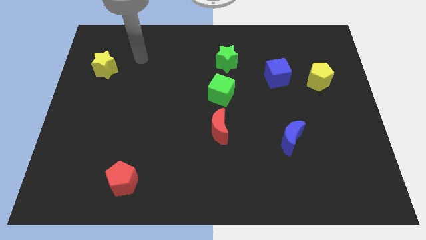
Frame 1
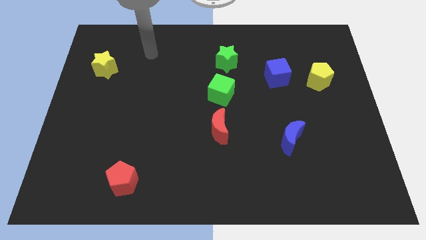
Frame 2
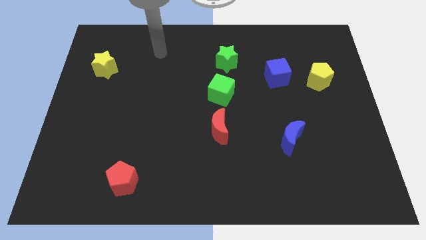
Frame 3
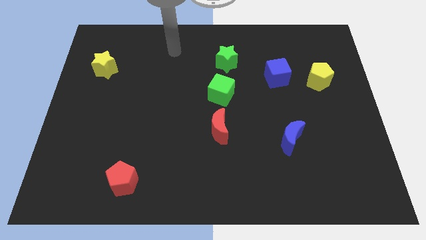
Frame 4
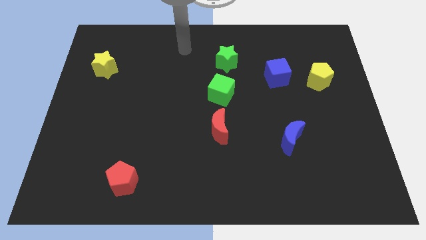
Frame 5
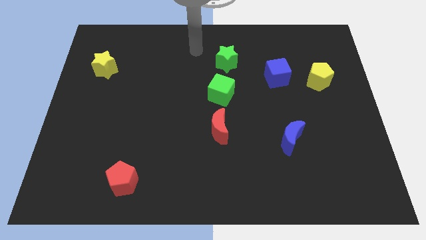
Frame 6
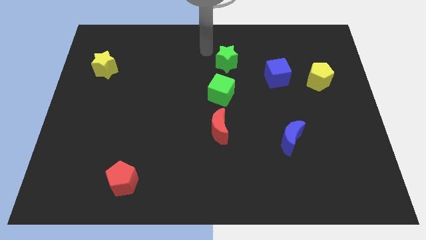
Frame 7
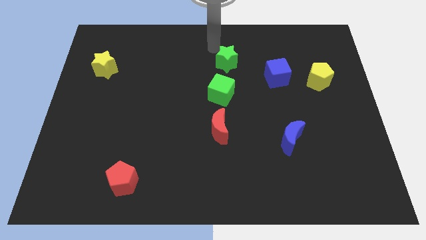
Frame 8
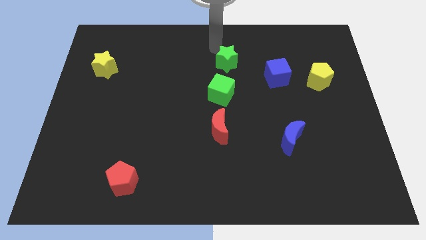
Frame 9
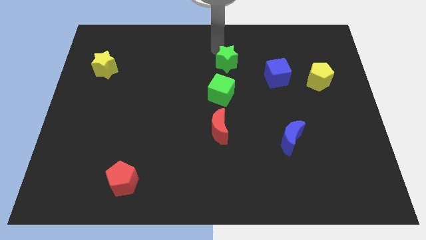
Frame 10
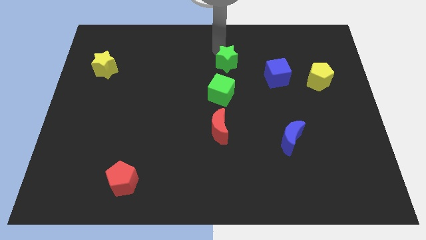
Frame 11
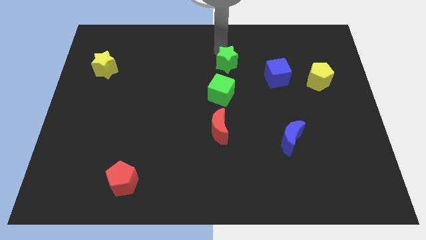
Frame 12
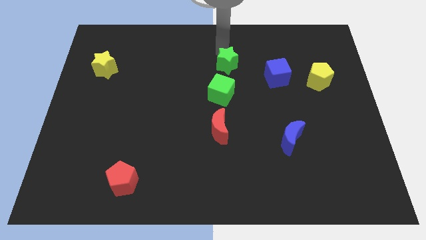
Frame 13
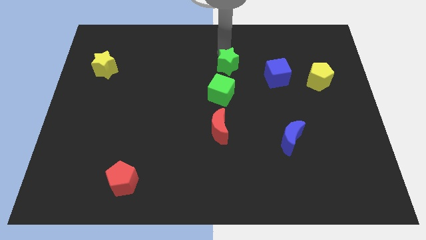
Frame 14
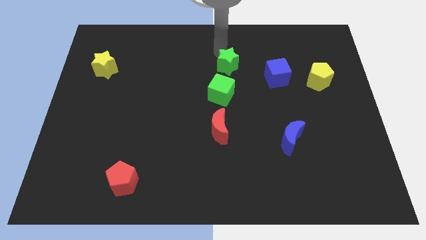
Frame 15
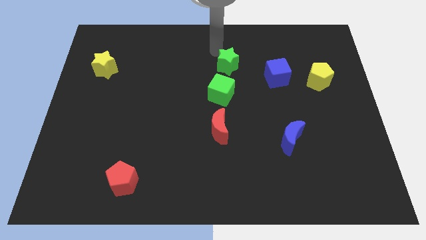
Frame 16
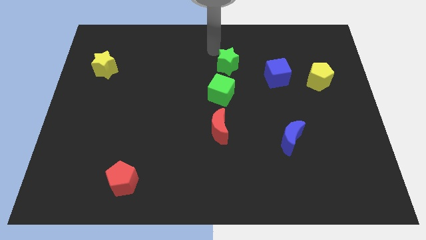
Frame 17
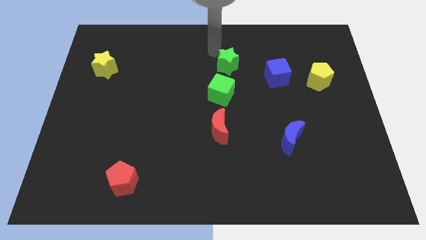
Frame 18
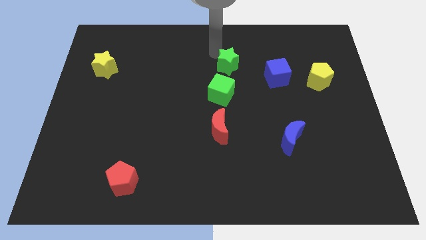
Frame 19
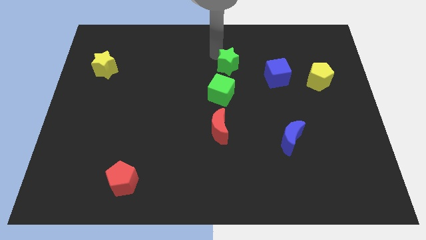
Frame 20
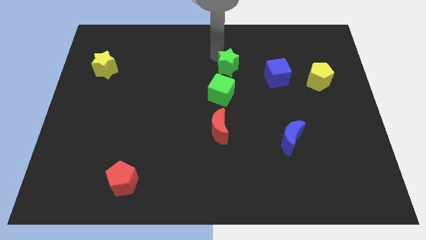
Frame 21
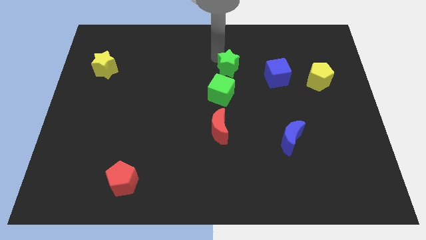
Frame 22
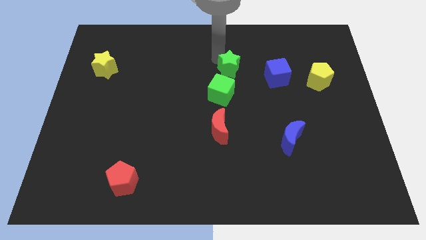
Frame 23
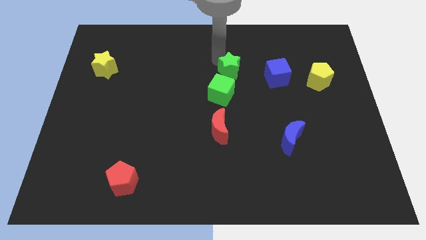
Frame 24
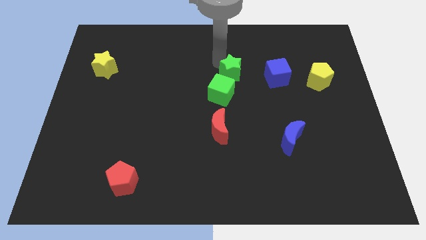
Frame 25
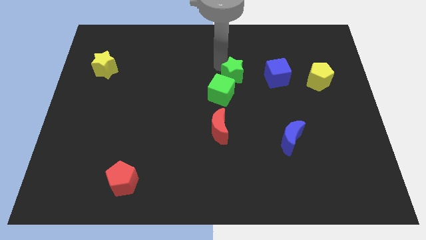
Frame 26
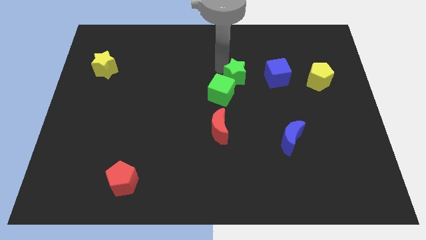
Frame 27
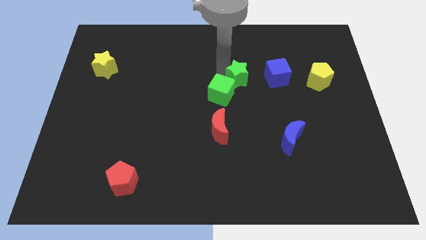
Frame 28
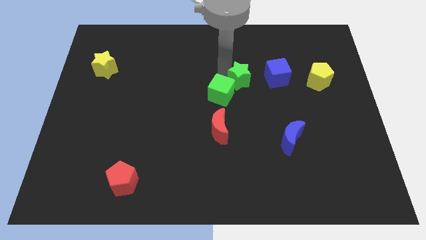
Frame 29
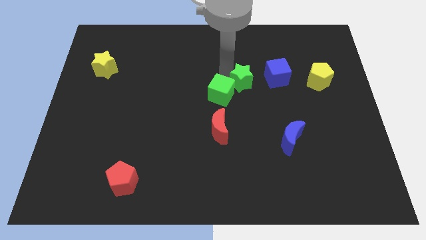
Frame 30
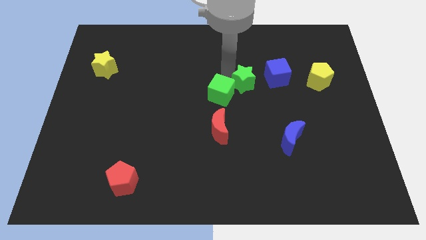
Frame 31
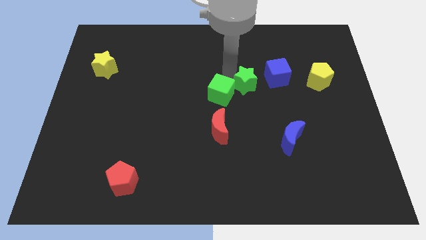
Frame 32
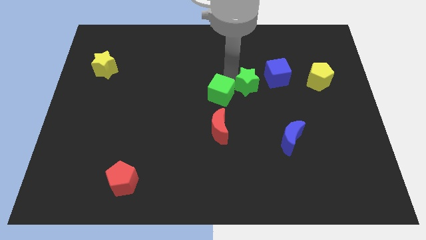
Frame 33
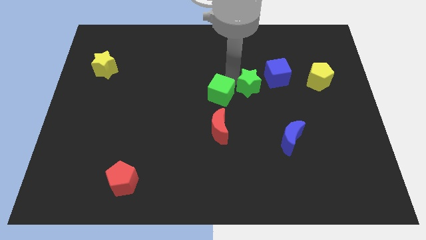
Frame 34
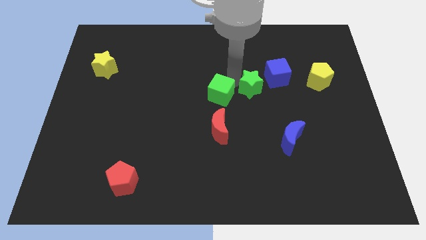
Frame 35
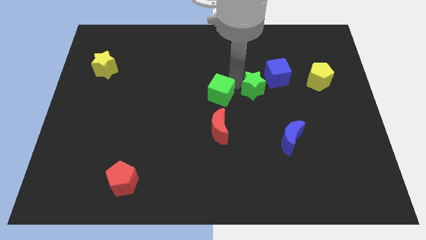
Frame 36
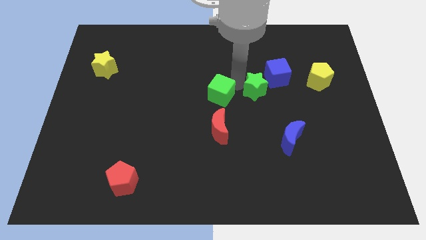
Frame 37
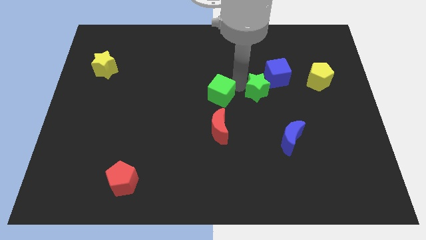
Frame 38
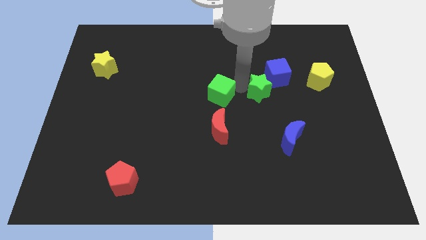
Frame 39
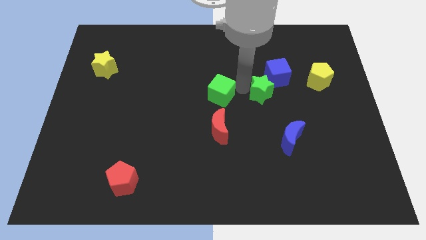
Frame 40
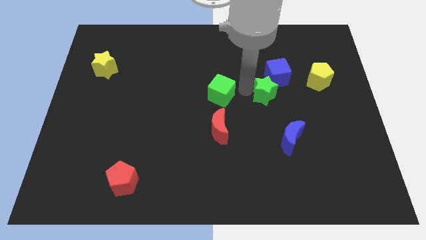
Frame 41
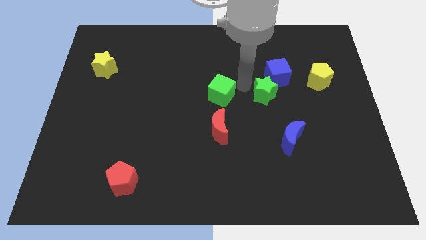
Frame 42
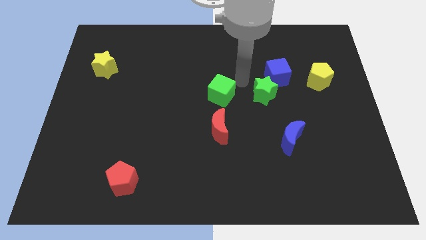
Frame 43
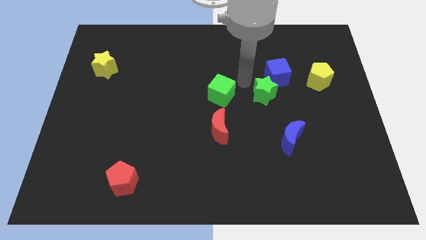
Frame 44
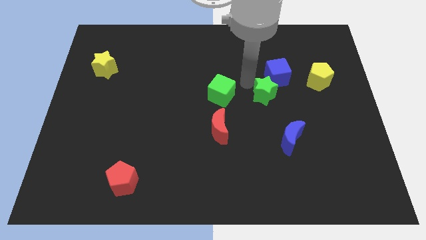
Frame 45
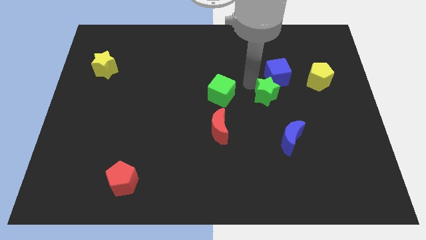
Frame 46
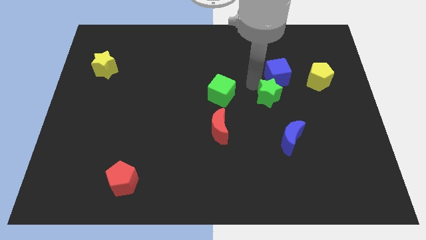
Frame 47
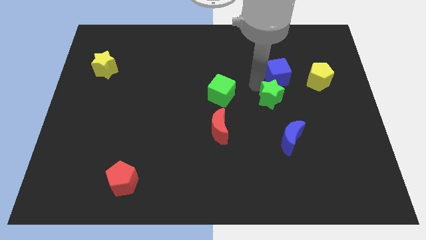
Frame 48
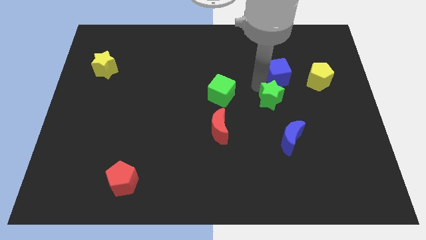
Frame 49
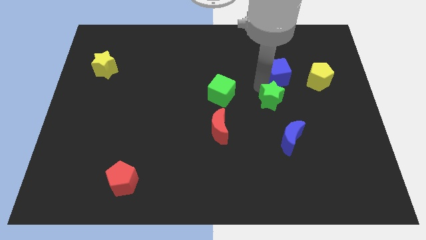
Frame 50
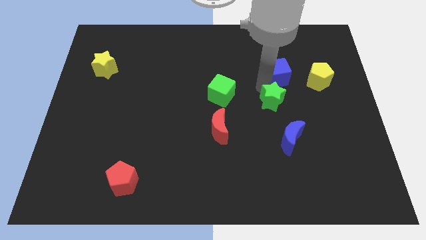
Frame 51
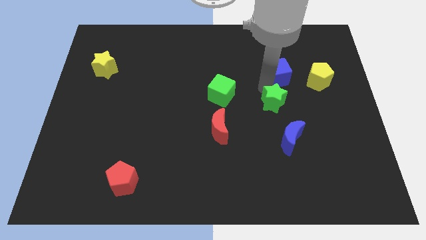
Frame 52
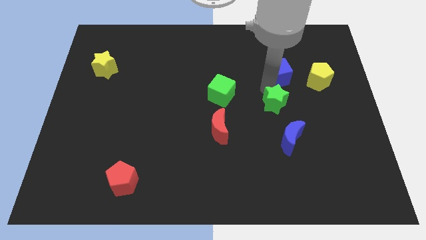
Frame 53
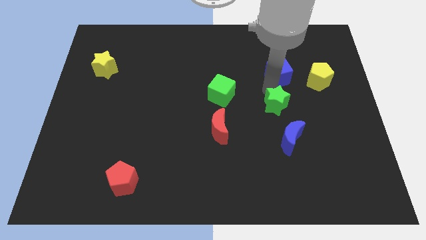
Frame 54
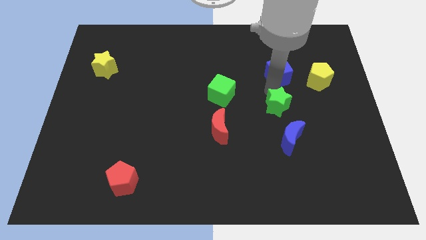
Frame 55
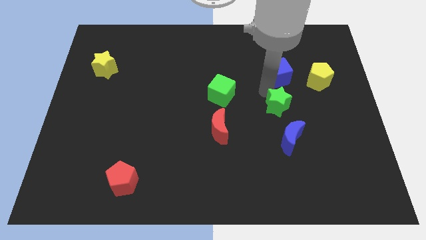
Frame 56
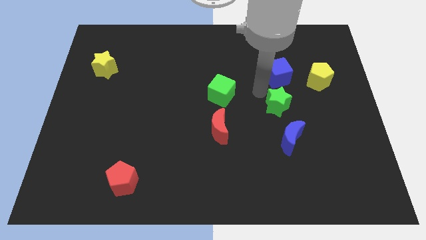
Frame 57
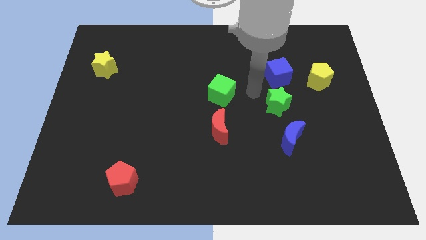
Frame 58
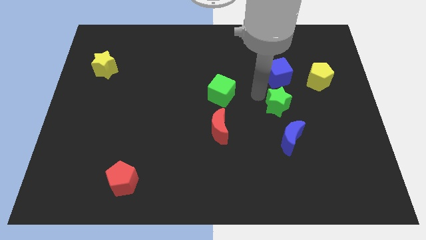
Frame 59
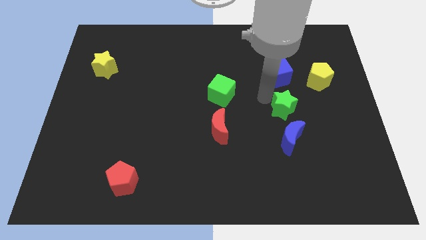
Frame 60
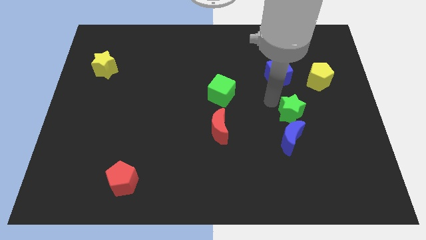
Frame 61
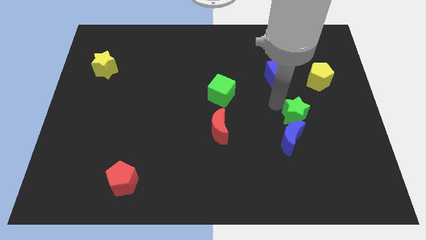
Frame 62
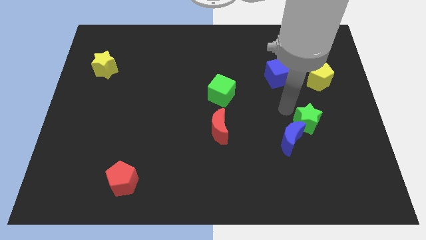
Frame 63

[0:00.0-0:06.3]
put the green star to the right side of the blue moon

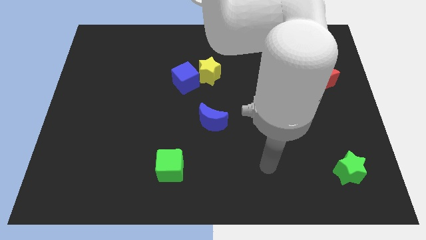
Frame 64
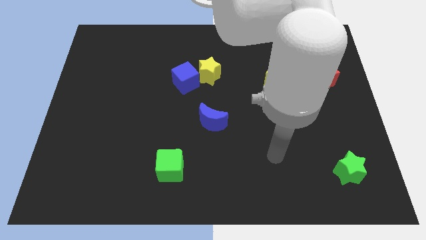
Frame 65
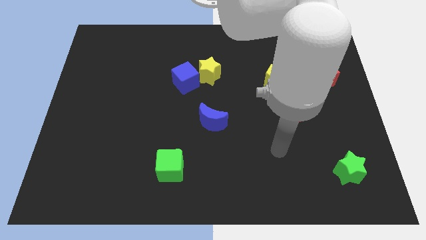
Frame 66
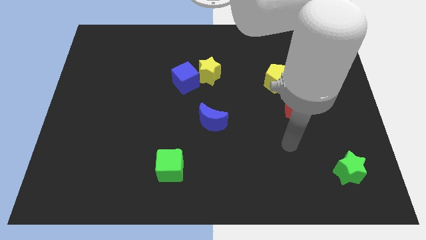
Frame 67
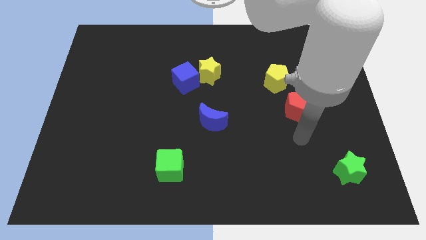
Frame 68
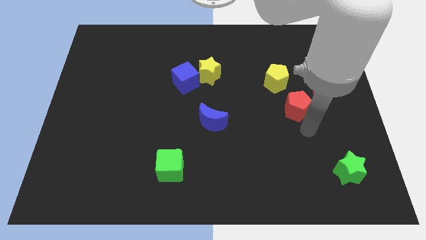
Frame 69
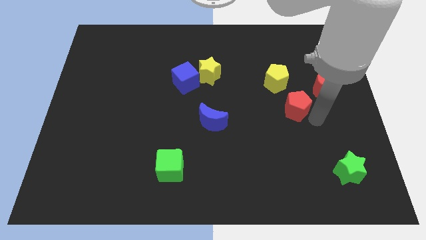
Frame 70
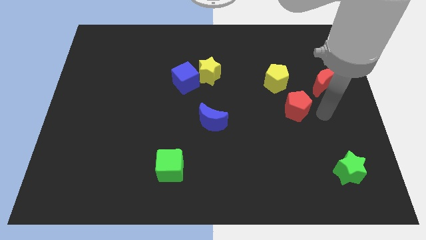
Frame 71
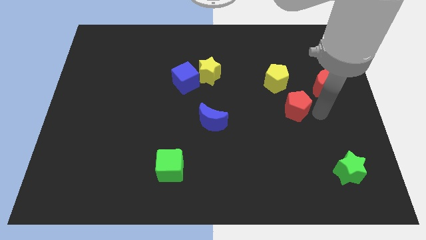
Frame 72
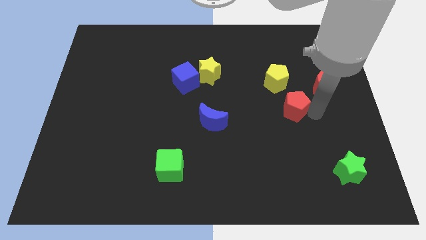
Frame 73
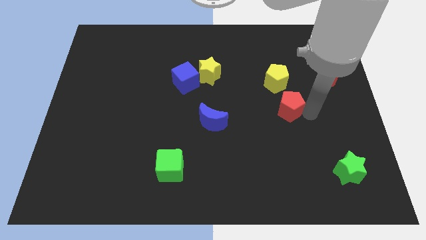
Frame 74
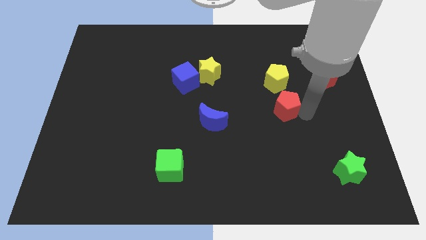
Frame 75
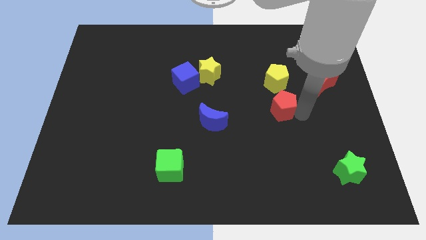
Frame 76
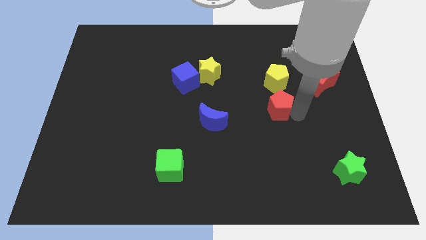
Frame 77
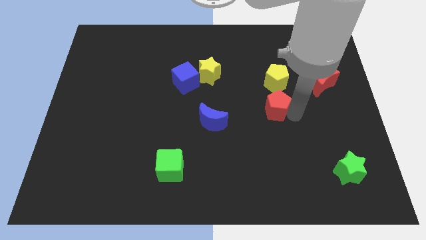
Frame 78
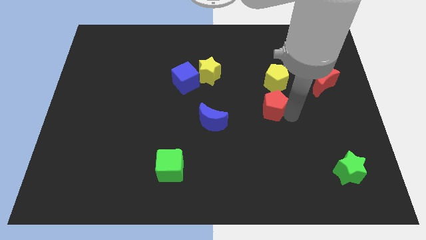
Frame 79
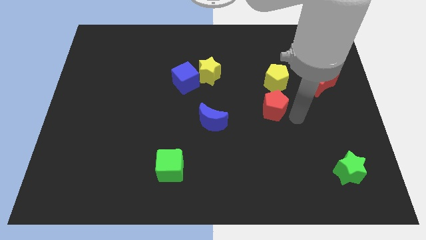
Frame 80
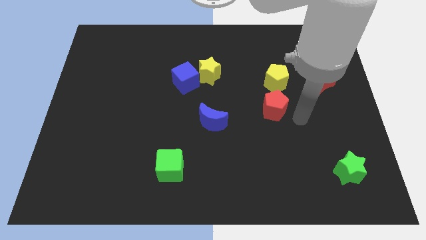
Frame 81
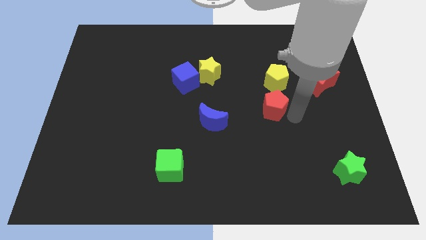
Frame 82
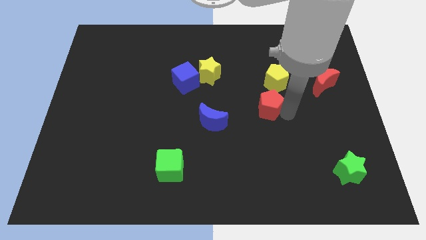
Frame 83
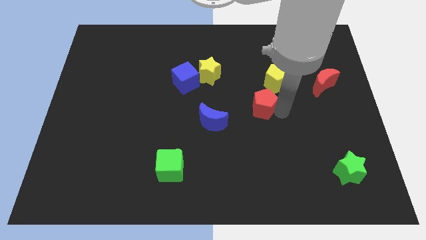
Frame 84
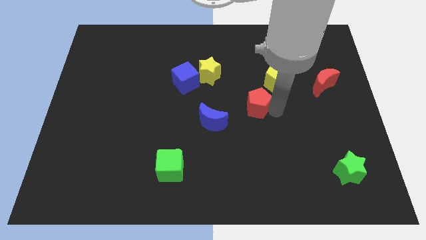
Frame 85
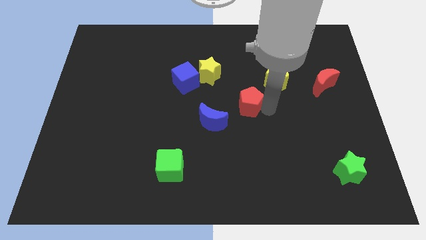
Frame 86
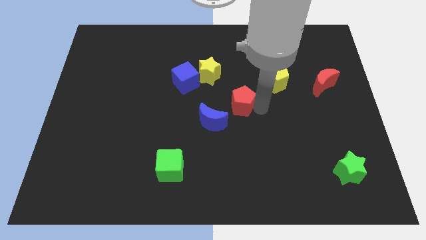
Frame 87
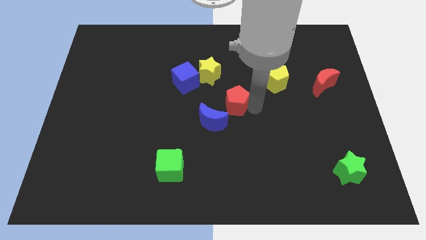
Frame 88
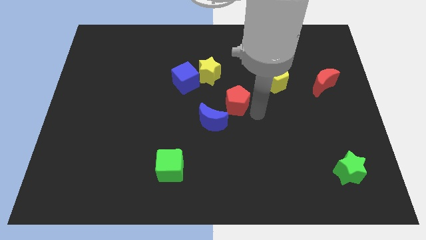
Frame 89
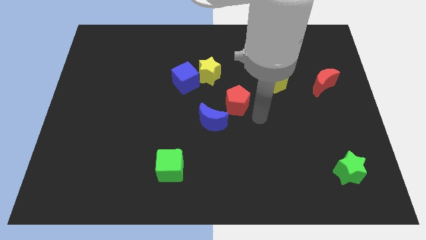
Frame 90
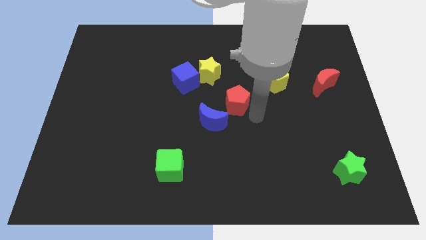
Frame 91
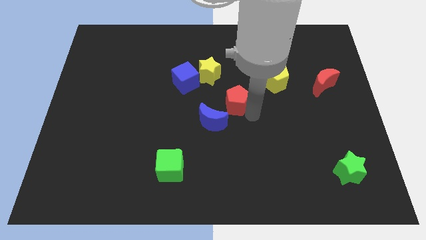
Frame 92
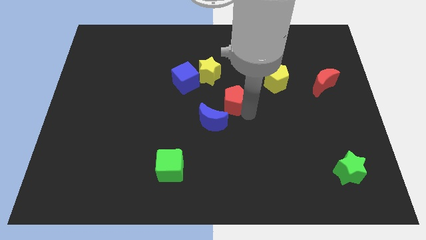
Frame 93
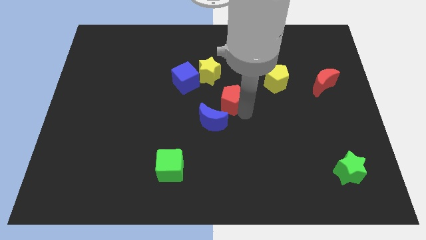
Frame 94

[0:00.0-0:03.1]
push the red pentagon above the blue moon
